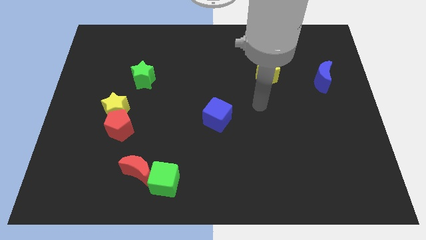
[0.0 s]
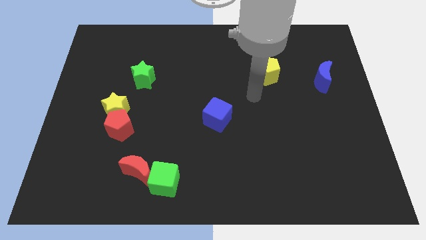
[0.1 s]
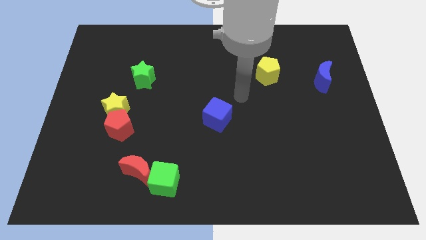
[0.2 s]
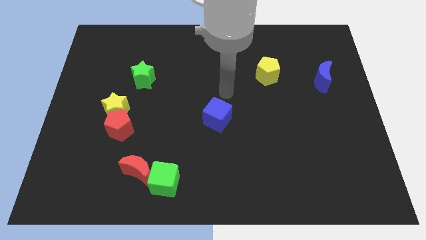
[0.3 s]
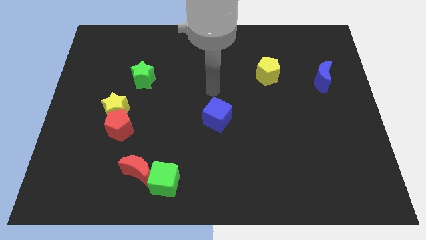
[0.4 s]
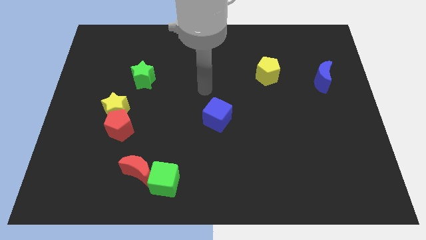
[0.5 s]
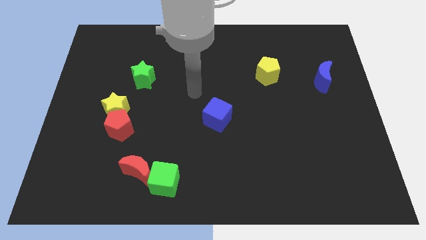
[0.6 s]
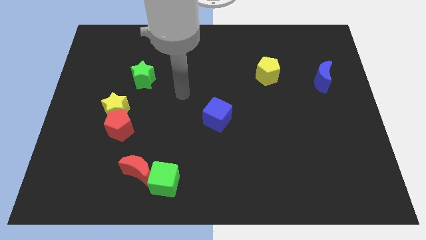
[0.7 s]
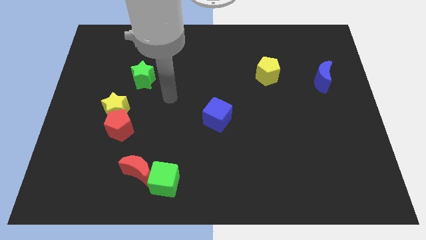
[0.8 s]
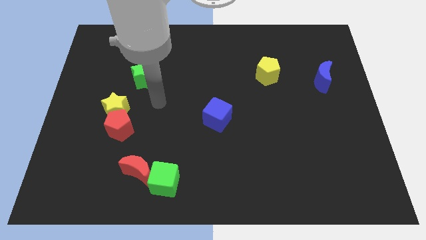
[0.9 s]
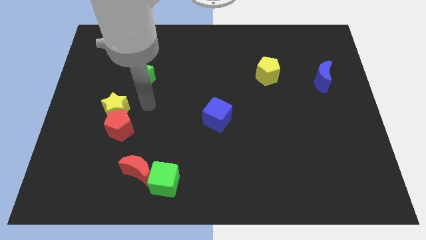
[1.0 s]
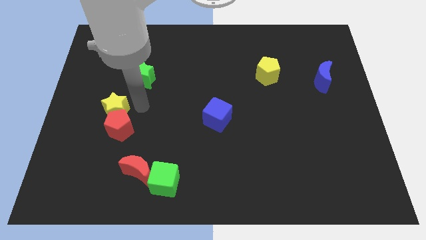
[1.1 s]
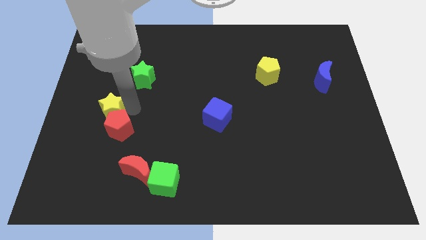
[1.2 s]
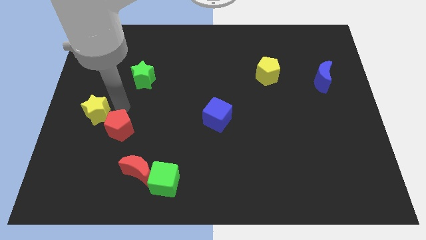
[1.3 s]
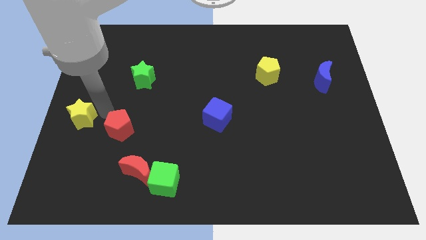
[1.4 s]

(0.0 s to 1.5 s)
move the red pentagon away from the yellow star

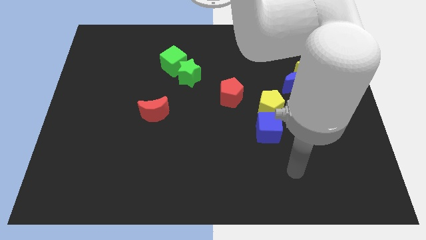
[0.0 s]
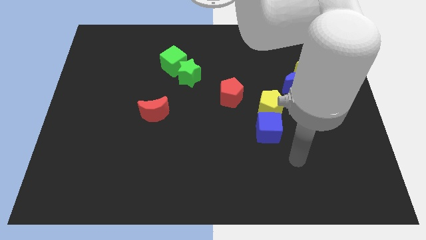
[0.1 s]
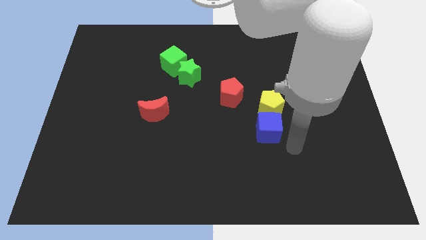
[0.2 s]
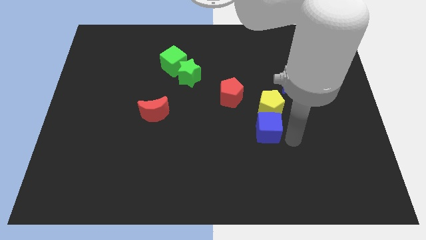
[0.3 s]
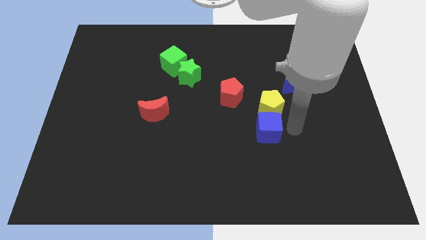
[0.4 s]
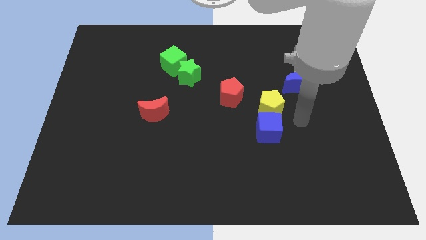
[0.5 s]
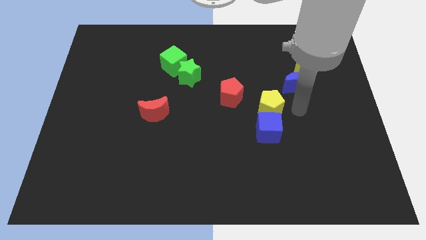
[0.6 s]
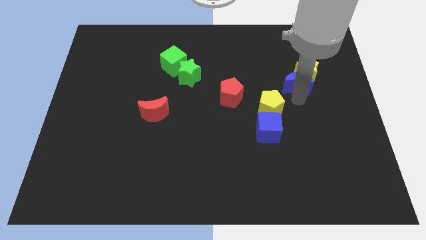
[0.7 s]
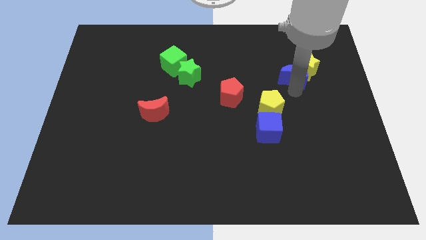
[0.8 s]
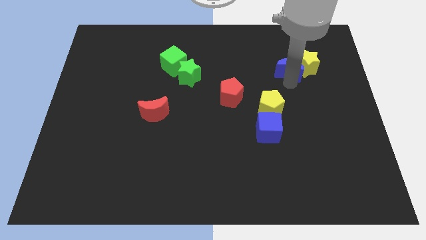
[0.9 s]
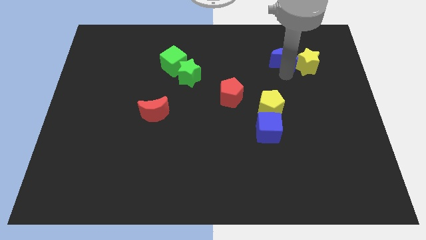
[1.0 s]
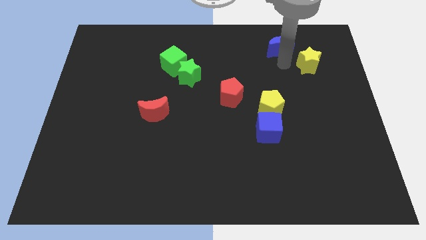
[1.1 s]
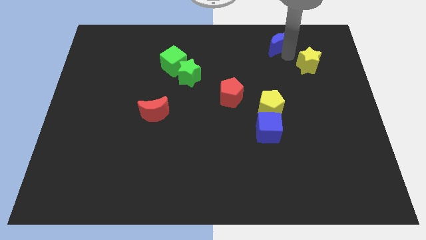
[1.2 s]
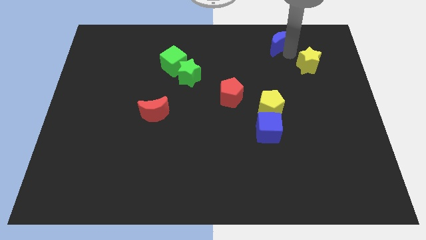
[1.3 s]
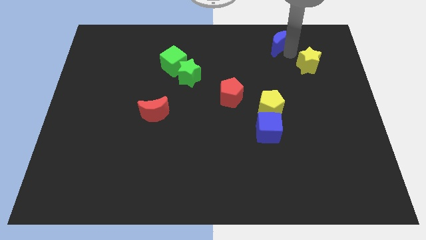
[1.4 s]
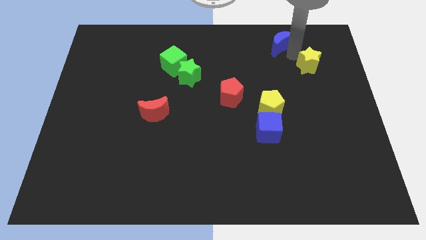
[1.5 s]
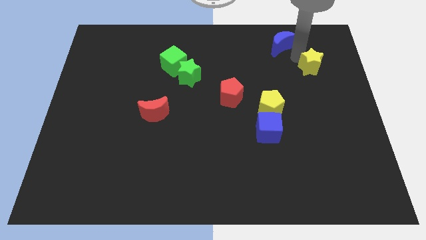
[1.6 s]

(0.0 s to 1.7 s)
move the yellow star away from the blue moon

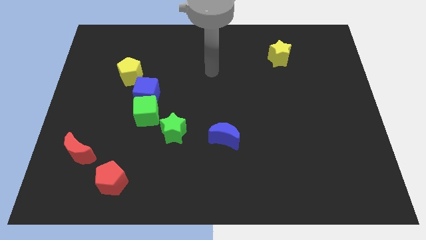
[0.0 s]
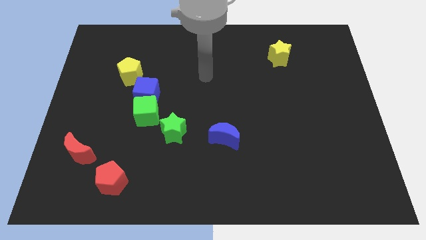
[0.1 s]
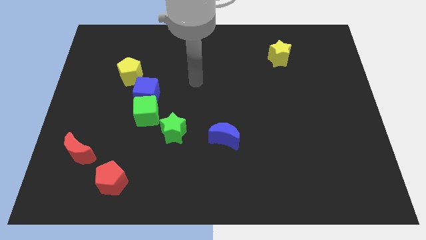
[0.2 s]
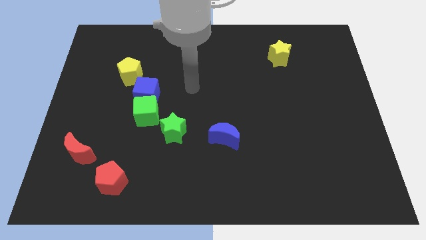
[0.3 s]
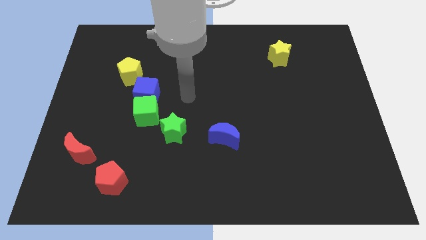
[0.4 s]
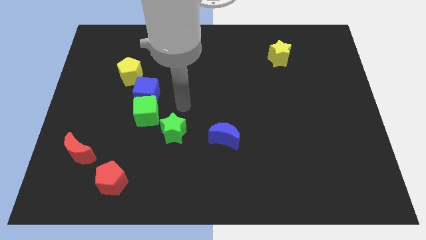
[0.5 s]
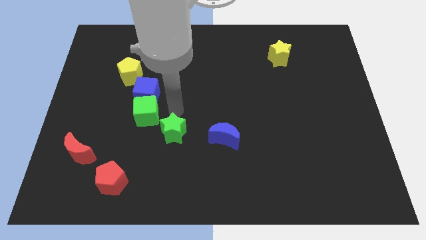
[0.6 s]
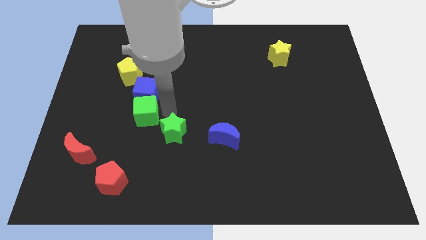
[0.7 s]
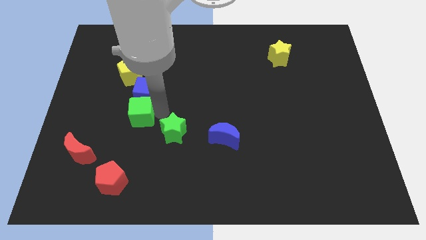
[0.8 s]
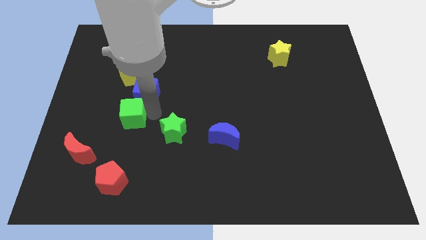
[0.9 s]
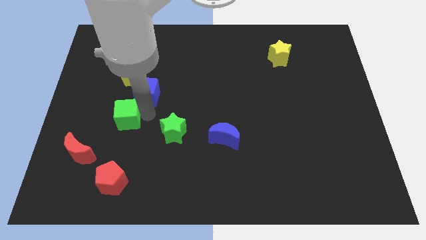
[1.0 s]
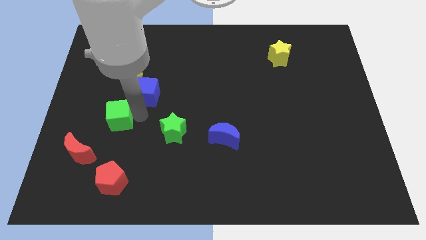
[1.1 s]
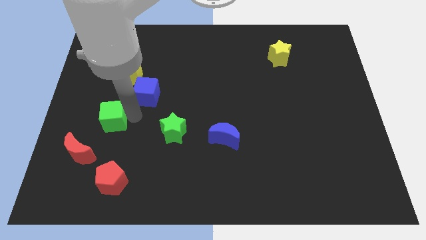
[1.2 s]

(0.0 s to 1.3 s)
separate the green cube from the blue cube and green star

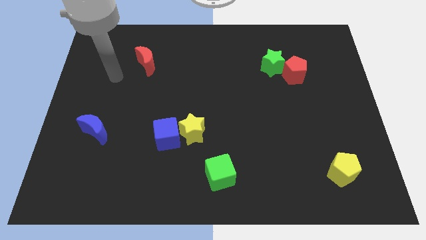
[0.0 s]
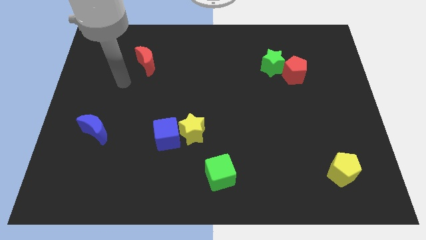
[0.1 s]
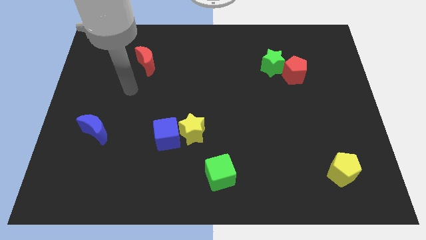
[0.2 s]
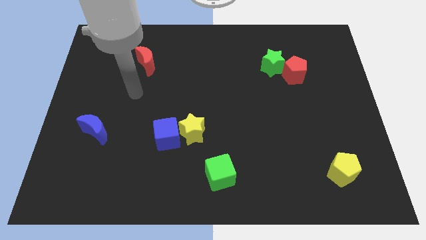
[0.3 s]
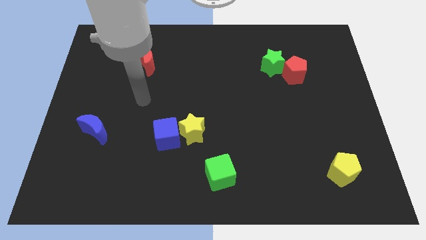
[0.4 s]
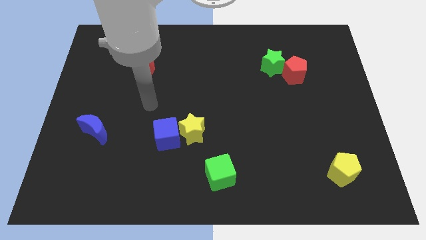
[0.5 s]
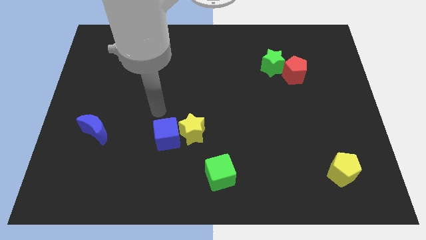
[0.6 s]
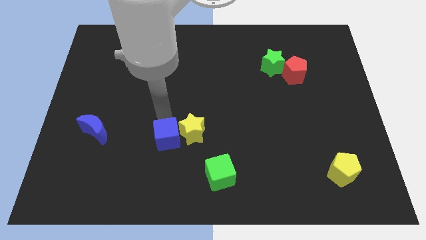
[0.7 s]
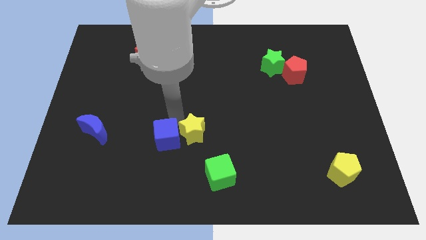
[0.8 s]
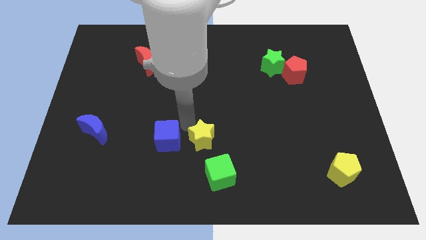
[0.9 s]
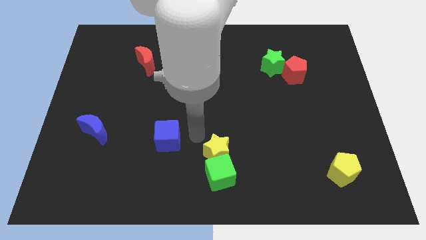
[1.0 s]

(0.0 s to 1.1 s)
separate the blue cube from the yellow star

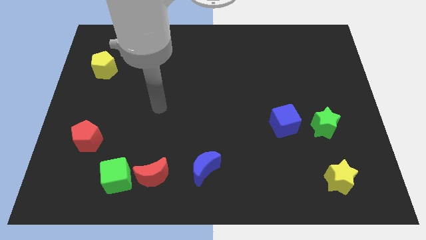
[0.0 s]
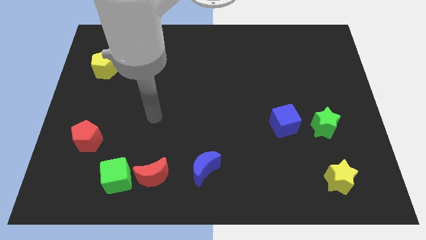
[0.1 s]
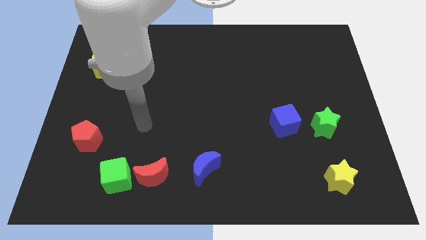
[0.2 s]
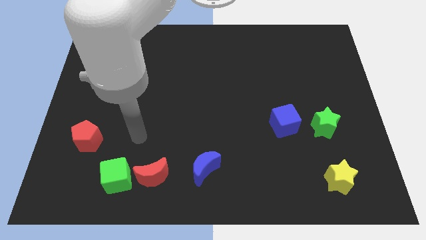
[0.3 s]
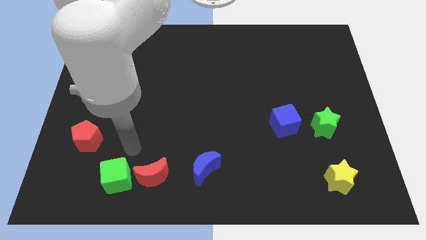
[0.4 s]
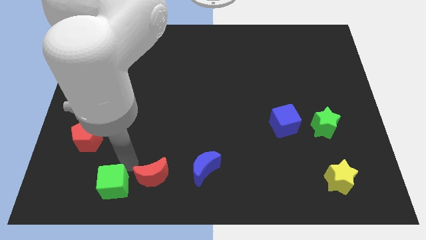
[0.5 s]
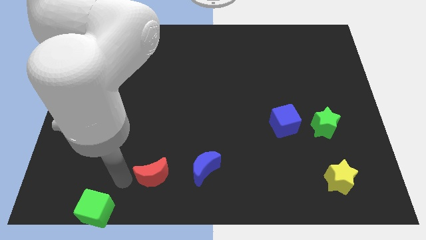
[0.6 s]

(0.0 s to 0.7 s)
pull the red moon apart from the green cube

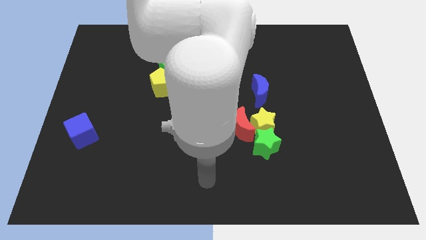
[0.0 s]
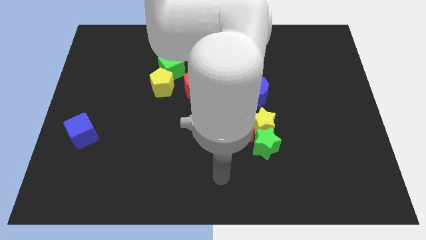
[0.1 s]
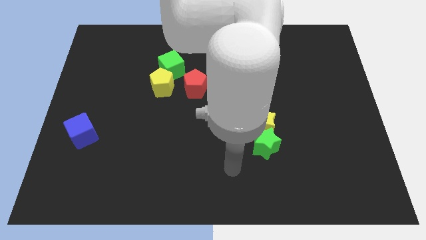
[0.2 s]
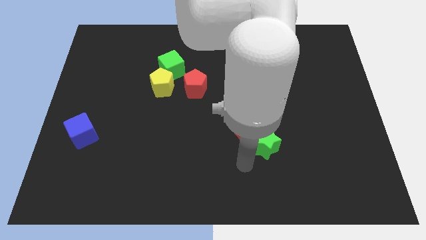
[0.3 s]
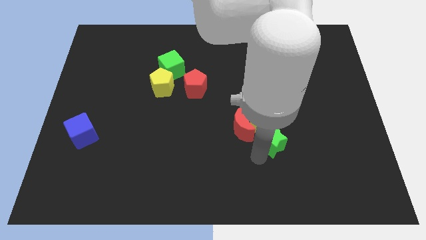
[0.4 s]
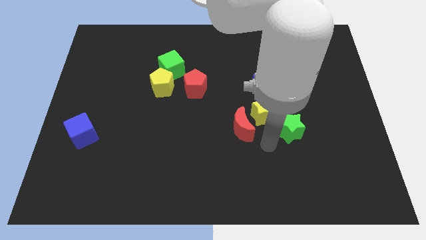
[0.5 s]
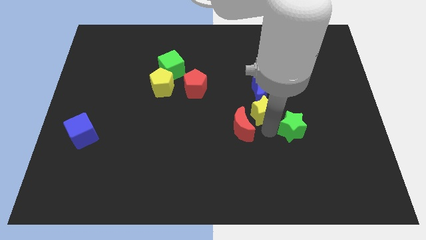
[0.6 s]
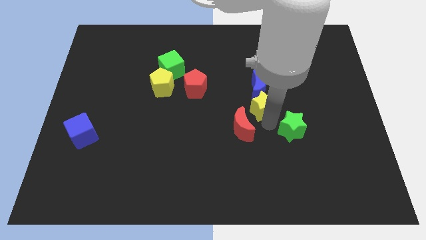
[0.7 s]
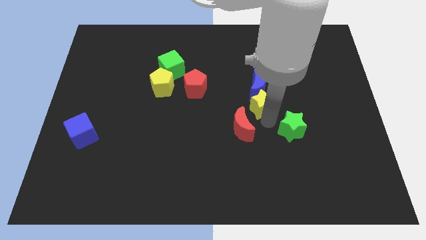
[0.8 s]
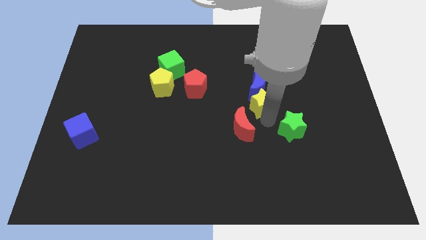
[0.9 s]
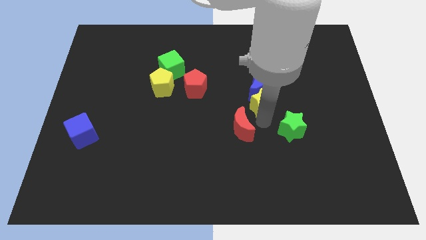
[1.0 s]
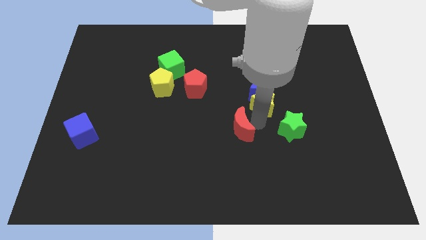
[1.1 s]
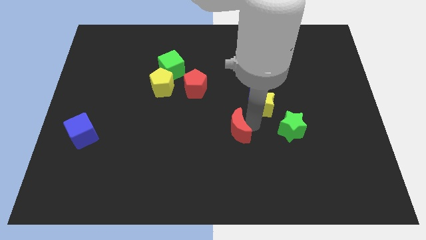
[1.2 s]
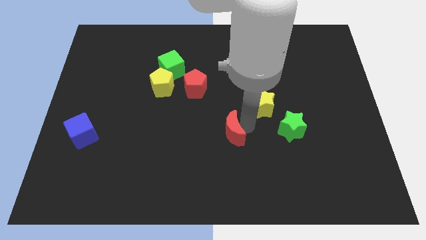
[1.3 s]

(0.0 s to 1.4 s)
pull the red moon apart from the yellow star and green star

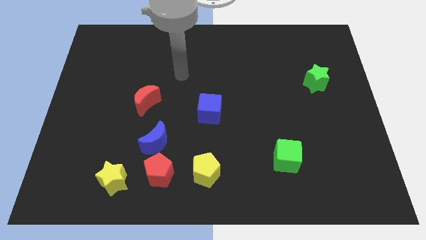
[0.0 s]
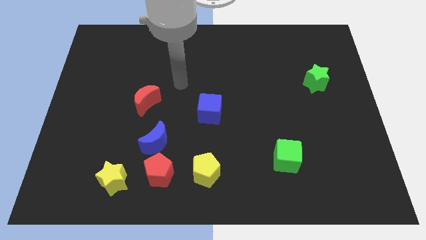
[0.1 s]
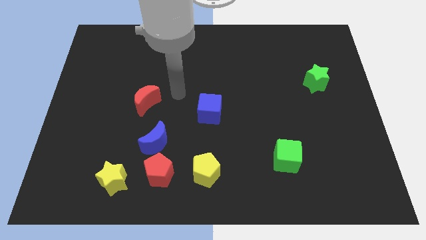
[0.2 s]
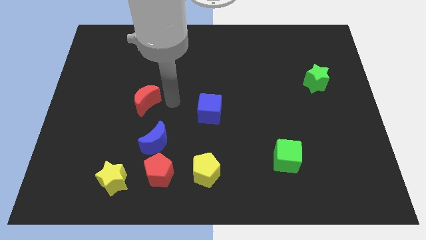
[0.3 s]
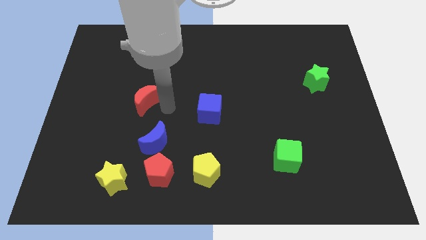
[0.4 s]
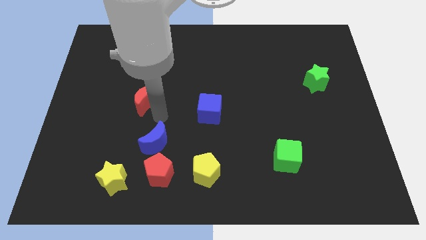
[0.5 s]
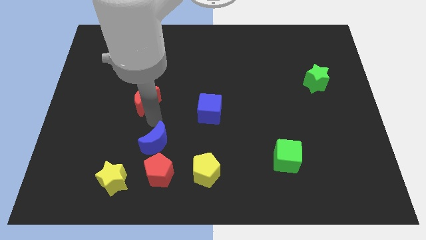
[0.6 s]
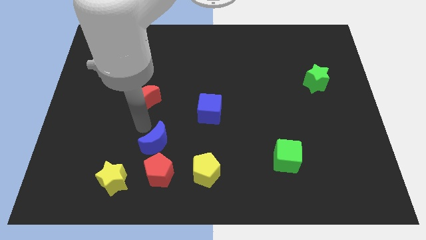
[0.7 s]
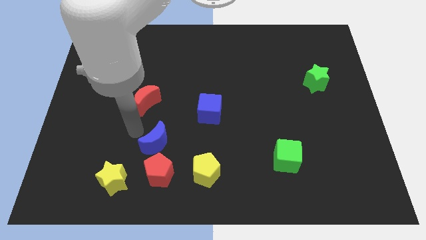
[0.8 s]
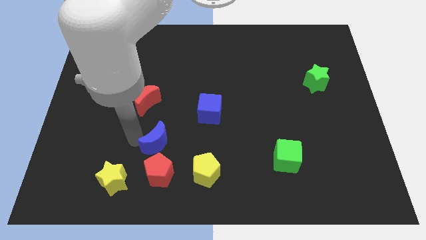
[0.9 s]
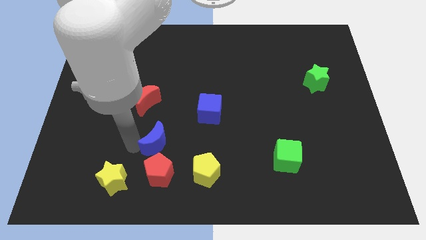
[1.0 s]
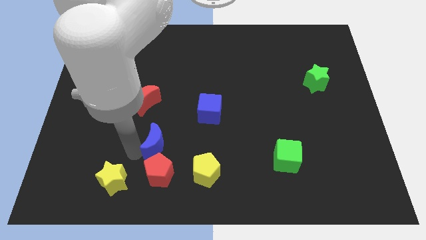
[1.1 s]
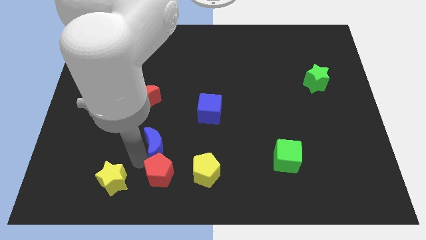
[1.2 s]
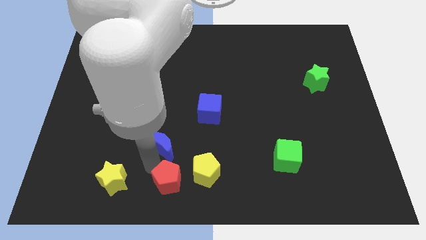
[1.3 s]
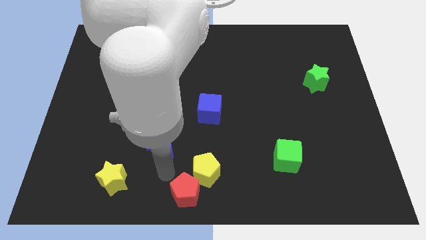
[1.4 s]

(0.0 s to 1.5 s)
move the blue moon away from the red pentagon

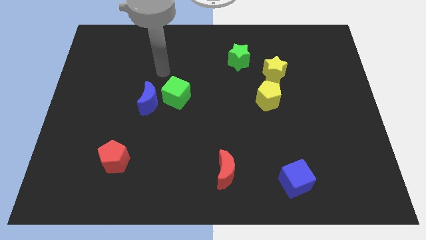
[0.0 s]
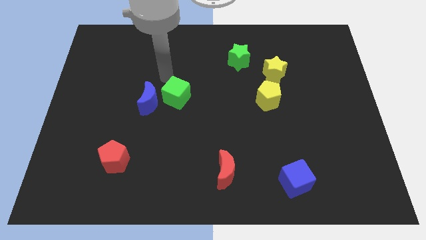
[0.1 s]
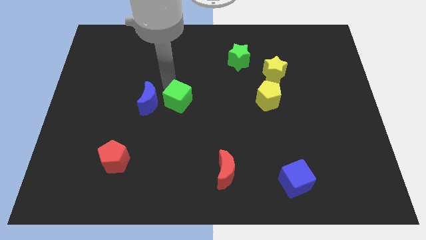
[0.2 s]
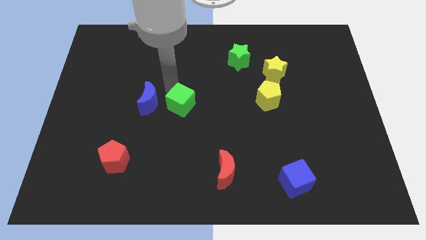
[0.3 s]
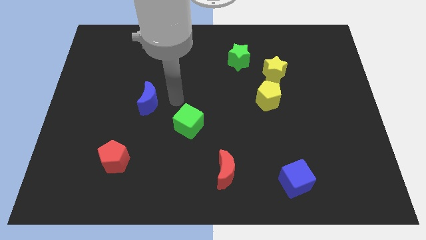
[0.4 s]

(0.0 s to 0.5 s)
separate the blue moon from the green cube
